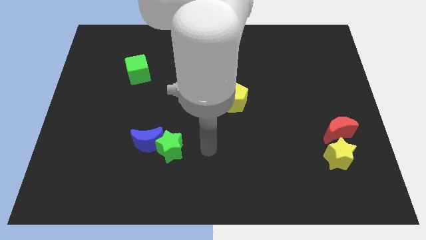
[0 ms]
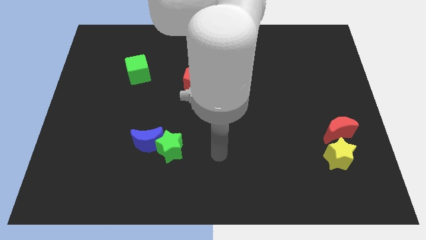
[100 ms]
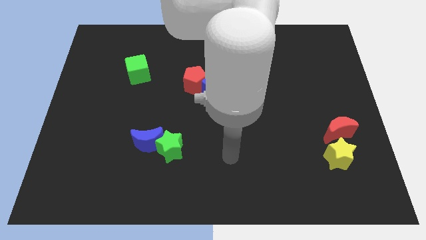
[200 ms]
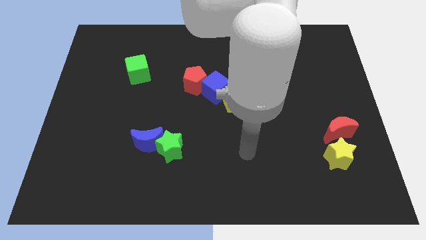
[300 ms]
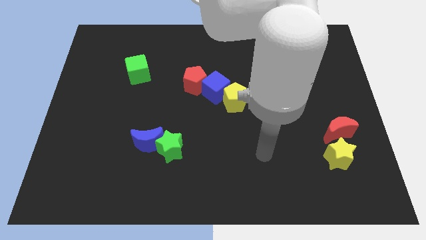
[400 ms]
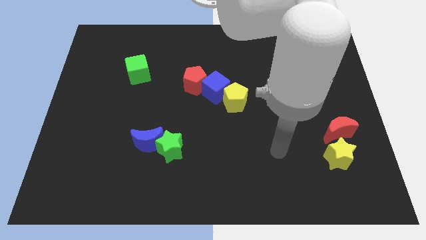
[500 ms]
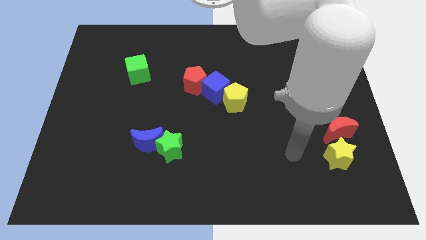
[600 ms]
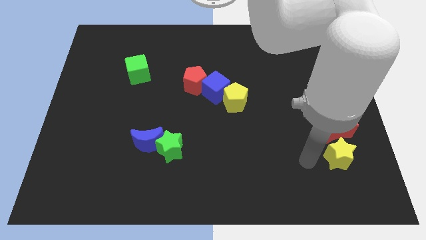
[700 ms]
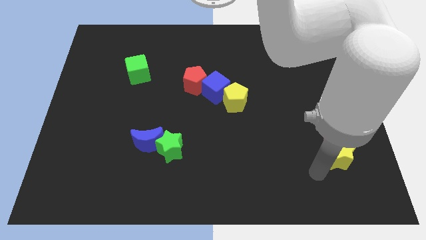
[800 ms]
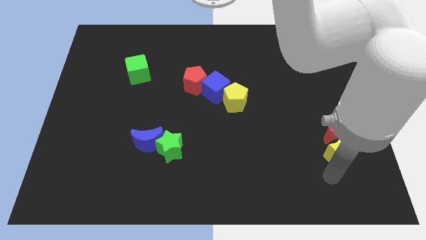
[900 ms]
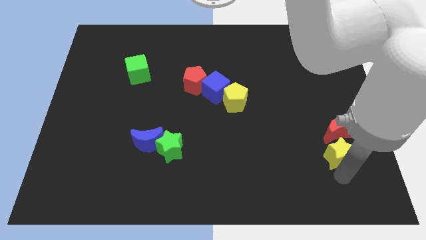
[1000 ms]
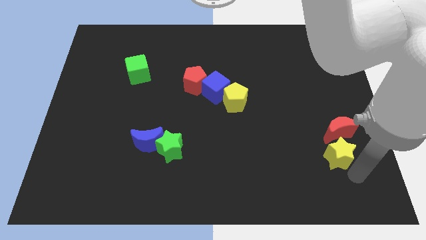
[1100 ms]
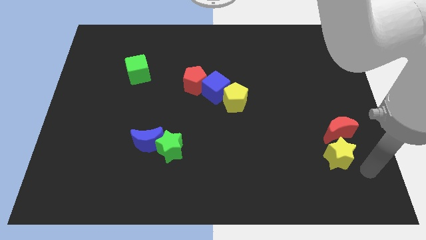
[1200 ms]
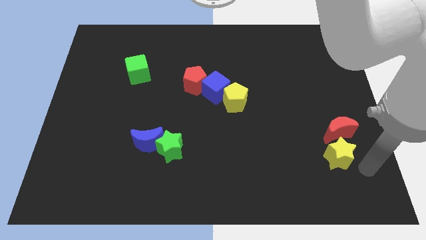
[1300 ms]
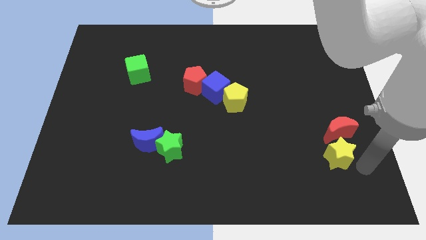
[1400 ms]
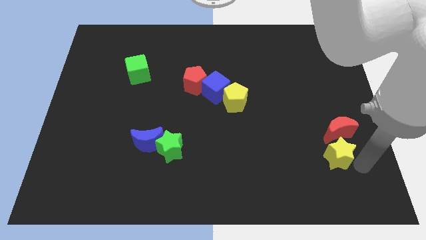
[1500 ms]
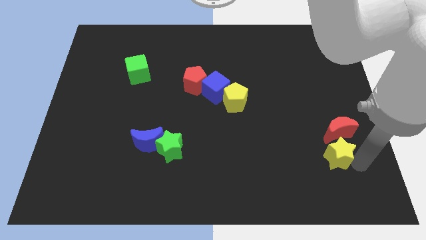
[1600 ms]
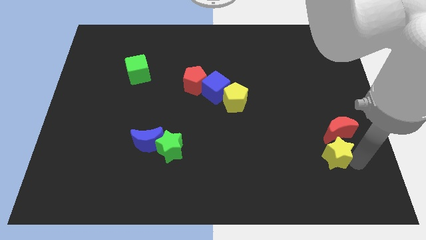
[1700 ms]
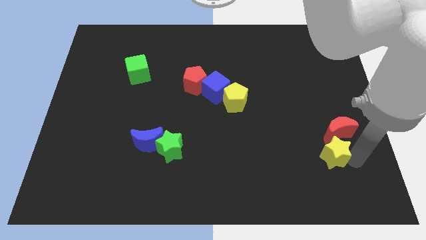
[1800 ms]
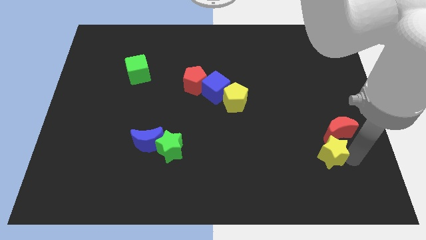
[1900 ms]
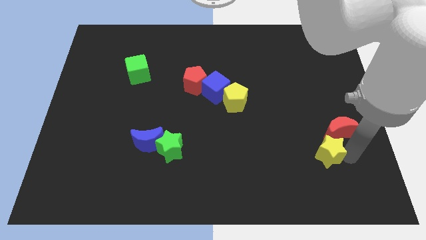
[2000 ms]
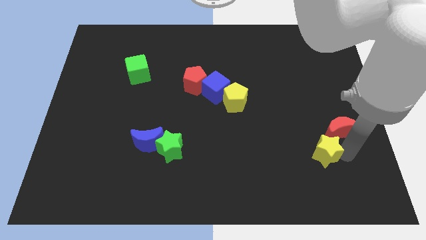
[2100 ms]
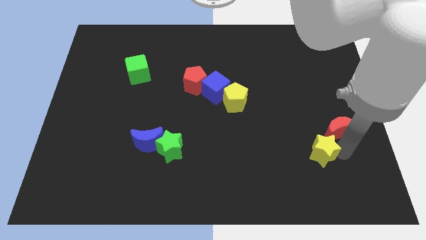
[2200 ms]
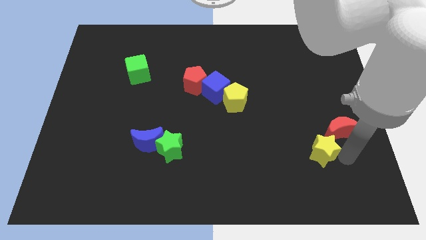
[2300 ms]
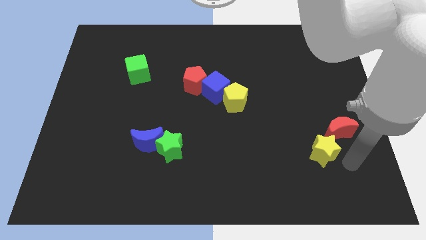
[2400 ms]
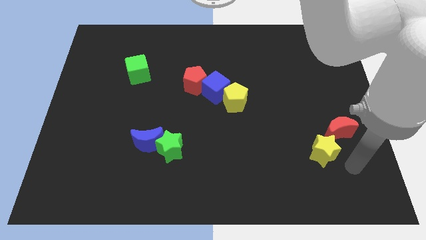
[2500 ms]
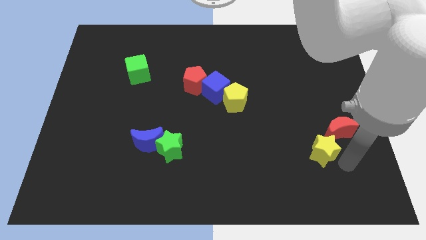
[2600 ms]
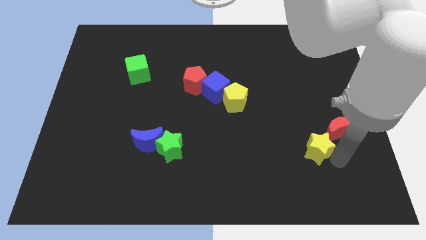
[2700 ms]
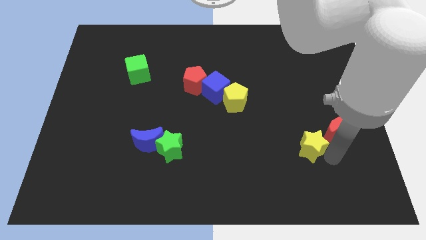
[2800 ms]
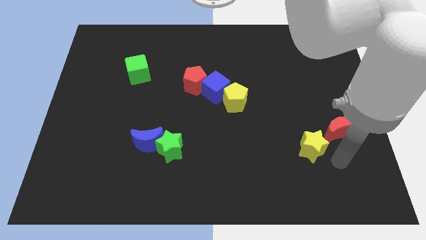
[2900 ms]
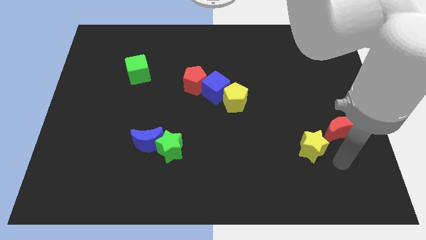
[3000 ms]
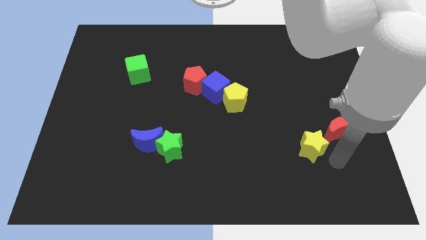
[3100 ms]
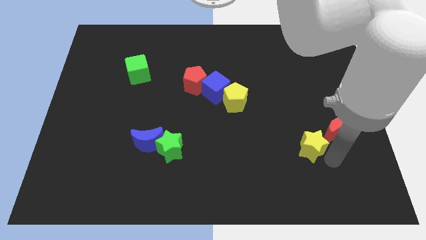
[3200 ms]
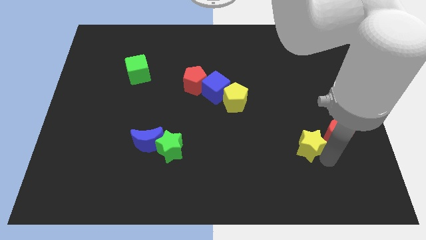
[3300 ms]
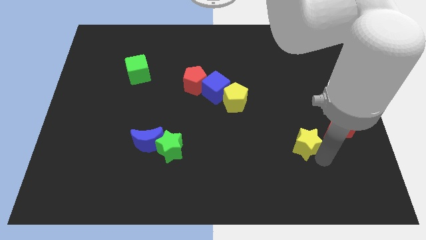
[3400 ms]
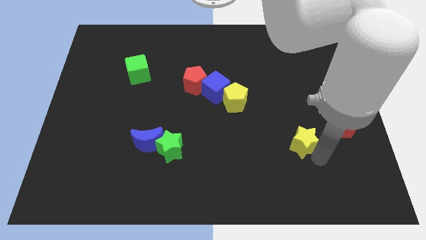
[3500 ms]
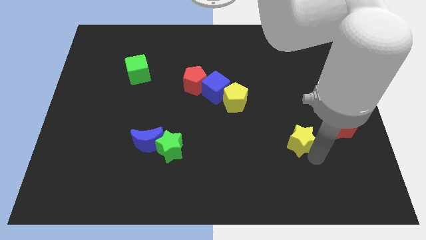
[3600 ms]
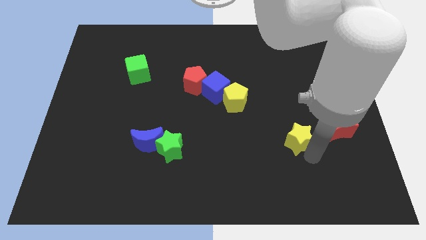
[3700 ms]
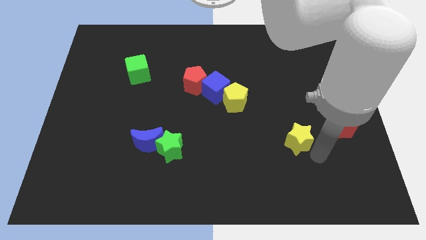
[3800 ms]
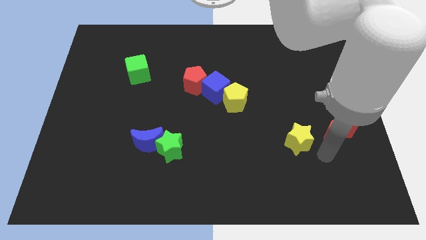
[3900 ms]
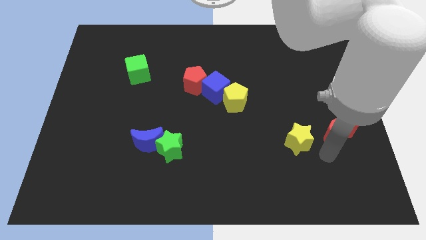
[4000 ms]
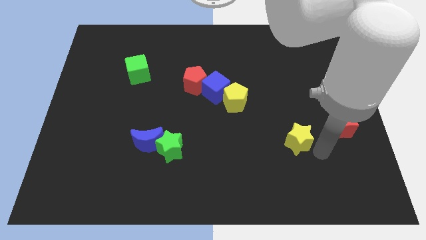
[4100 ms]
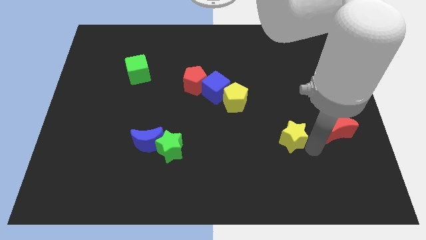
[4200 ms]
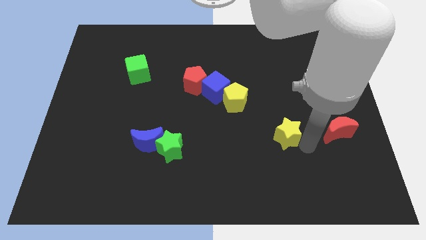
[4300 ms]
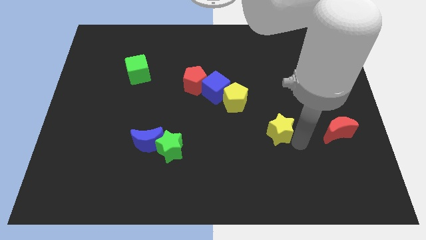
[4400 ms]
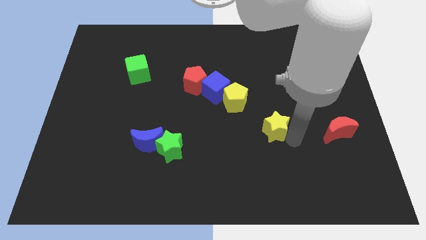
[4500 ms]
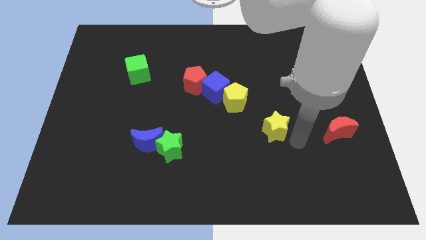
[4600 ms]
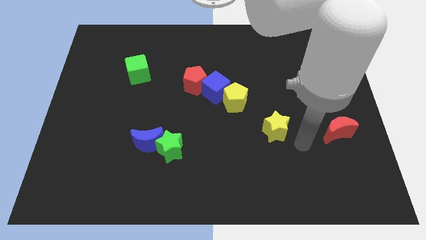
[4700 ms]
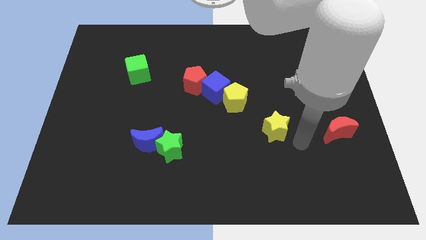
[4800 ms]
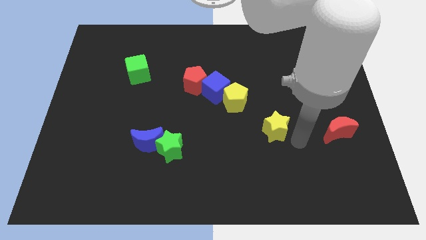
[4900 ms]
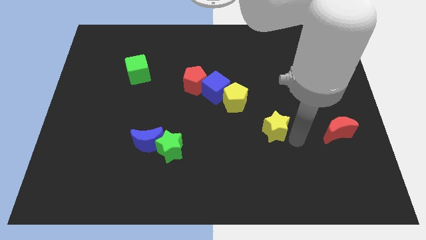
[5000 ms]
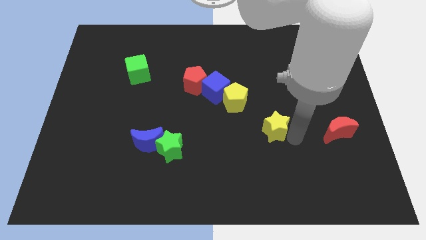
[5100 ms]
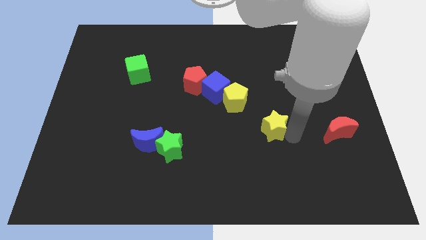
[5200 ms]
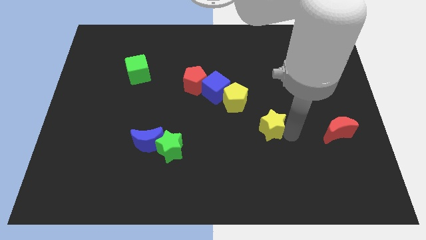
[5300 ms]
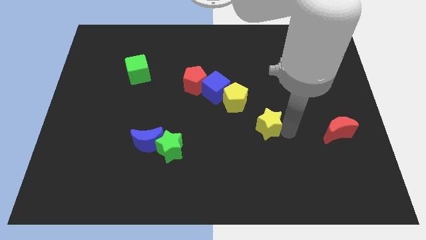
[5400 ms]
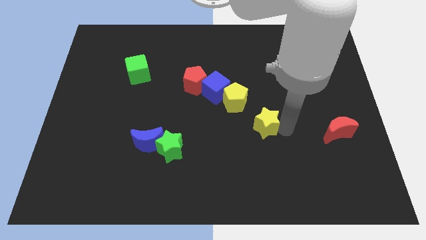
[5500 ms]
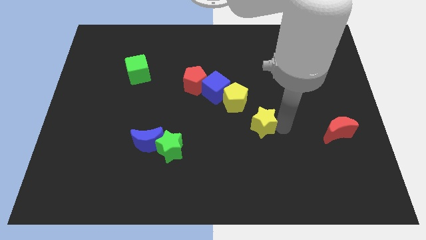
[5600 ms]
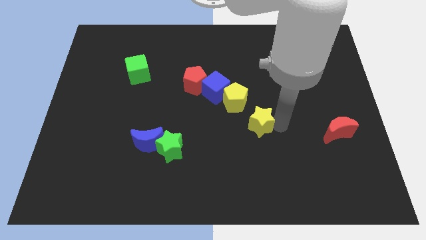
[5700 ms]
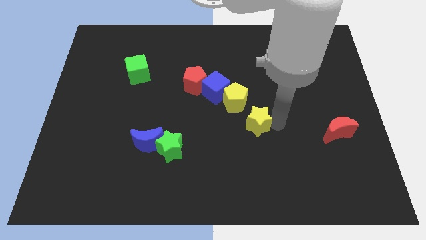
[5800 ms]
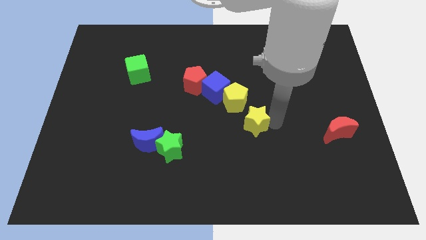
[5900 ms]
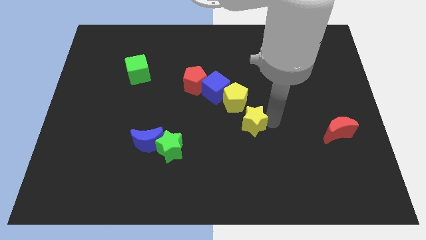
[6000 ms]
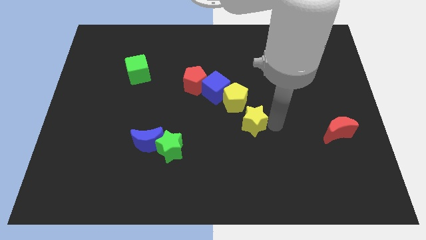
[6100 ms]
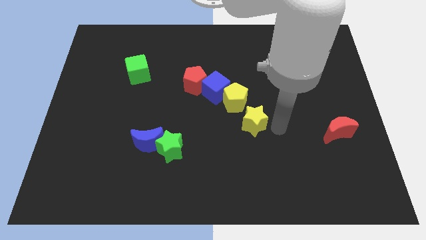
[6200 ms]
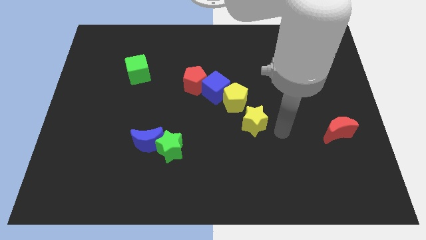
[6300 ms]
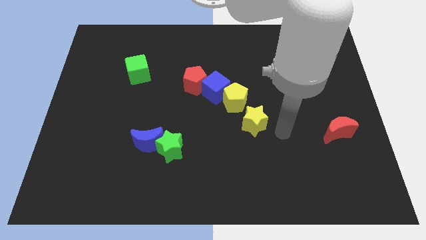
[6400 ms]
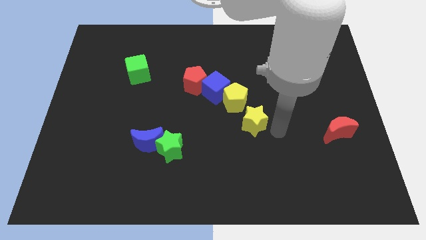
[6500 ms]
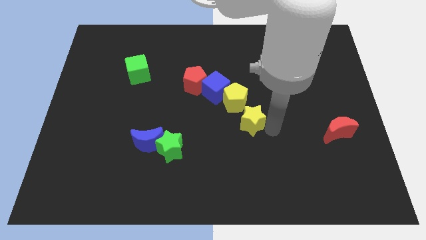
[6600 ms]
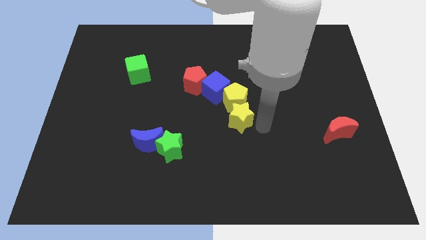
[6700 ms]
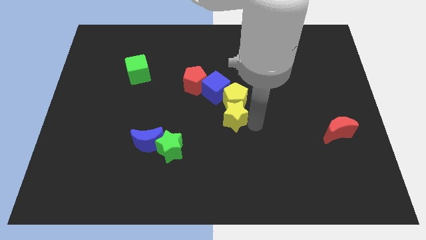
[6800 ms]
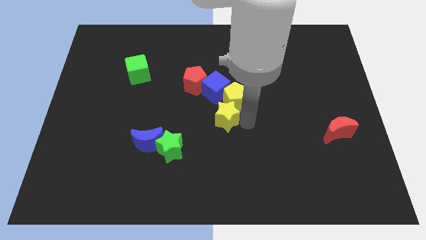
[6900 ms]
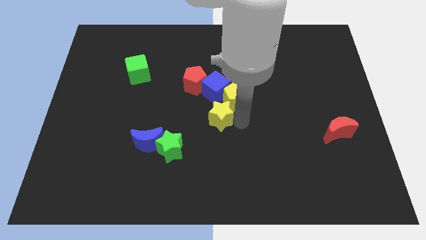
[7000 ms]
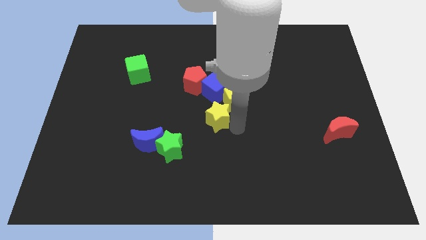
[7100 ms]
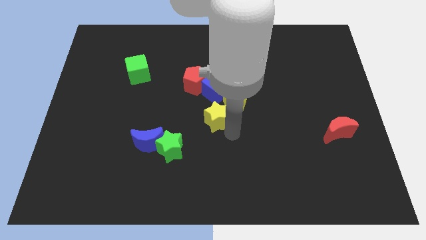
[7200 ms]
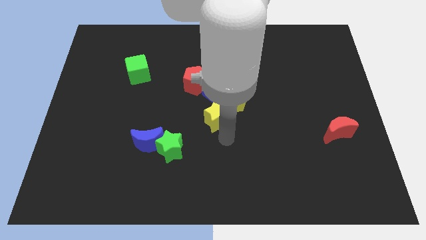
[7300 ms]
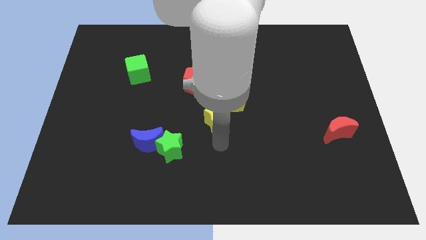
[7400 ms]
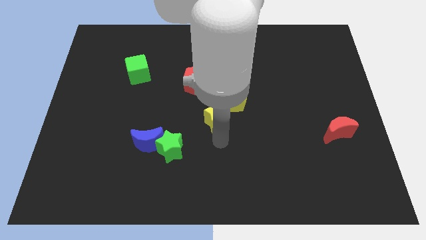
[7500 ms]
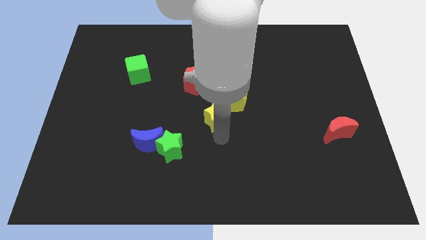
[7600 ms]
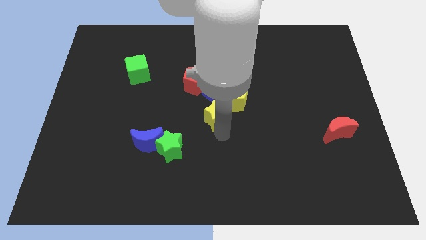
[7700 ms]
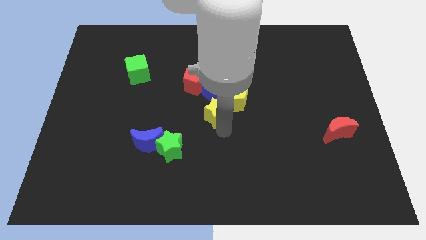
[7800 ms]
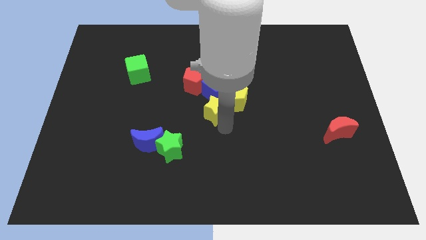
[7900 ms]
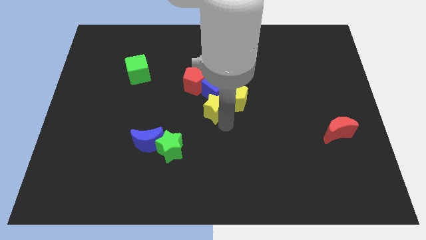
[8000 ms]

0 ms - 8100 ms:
push the yellow star close to the blue cube
